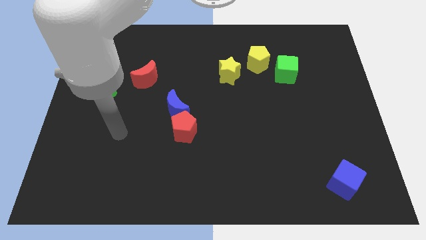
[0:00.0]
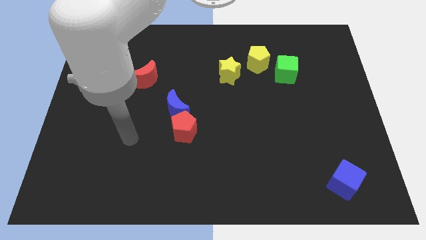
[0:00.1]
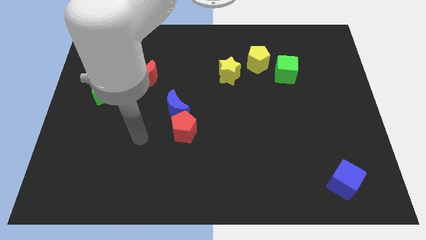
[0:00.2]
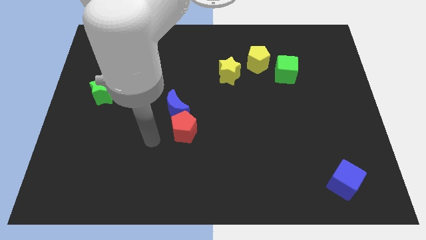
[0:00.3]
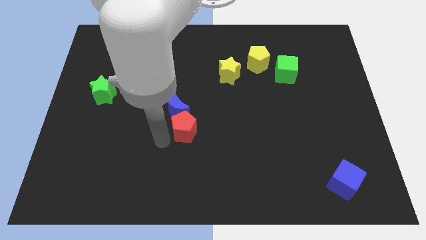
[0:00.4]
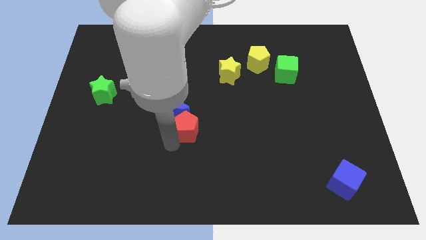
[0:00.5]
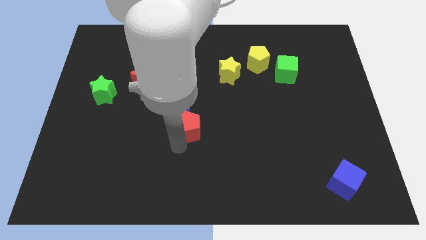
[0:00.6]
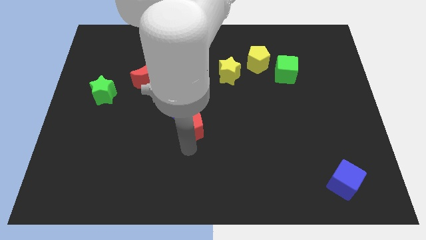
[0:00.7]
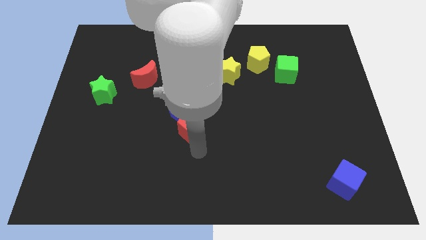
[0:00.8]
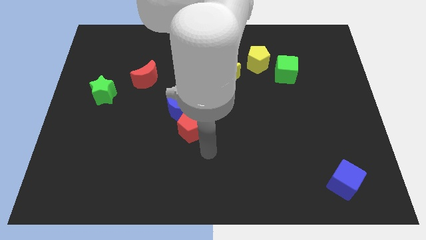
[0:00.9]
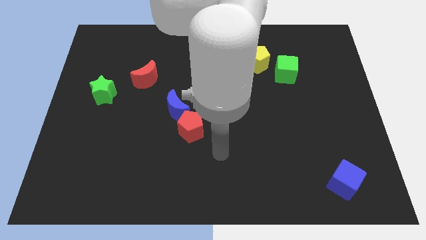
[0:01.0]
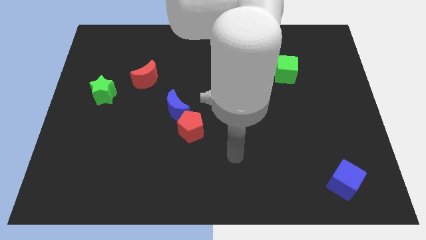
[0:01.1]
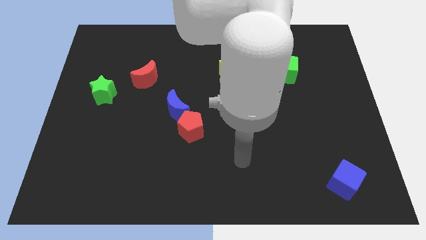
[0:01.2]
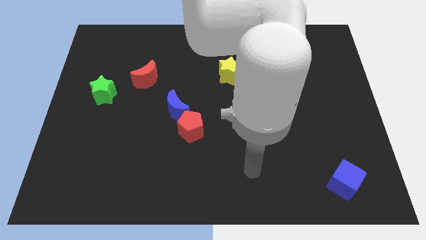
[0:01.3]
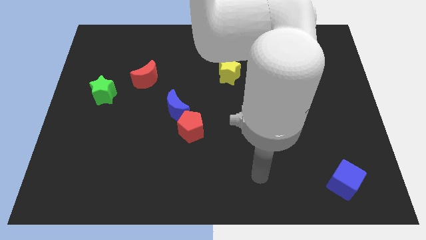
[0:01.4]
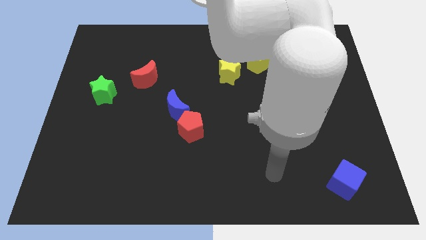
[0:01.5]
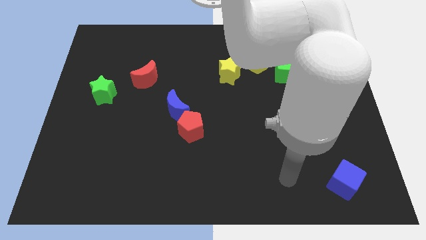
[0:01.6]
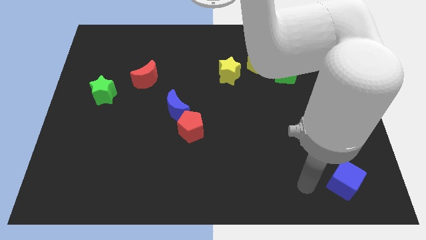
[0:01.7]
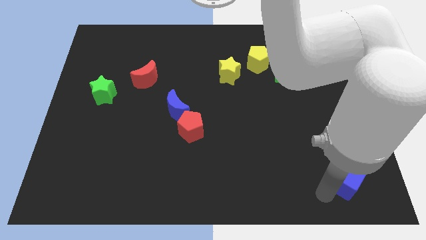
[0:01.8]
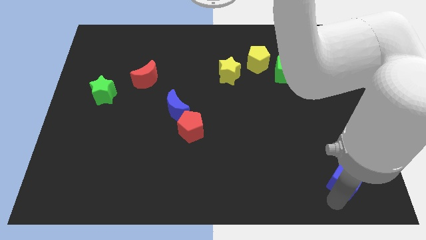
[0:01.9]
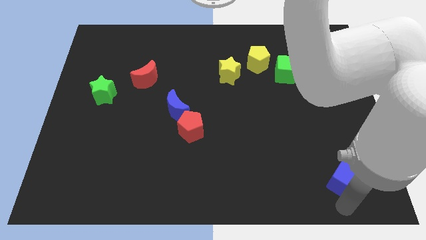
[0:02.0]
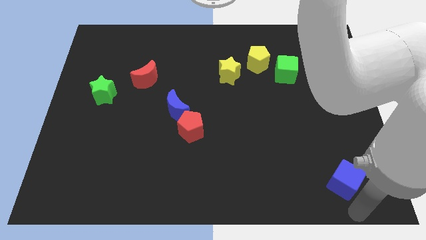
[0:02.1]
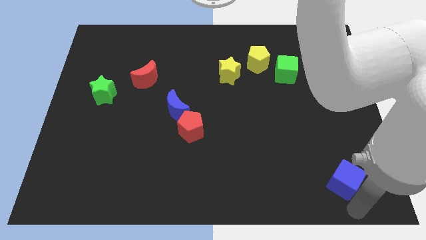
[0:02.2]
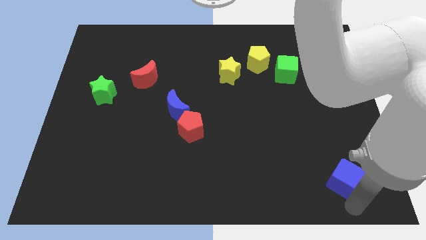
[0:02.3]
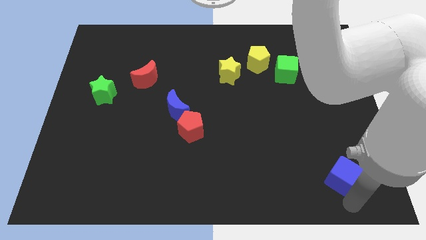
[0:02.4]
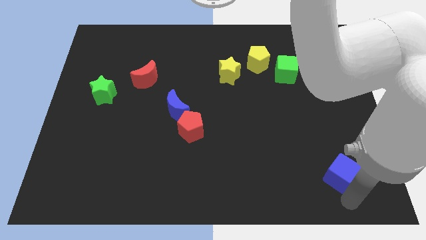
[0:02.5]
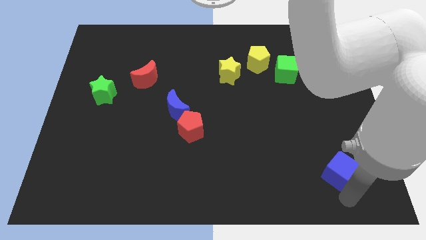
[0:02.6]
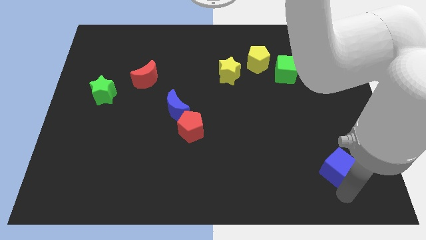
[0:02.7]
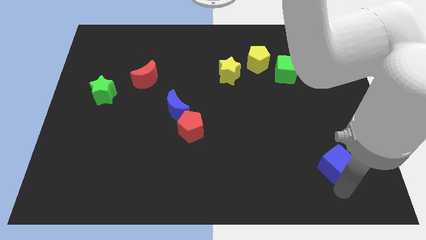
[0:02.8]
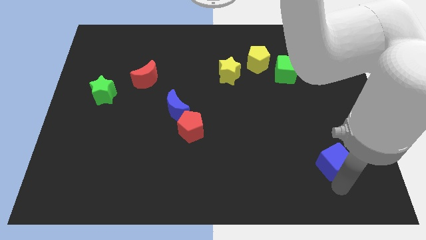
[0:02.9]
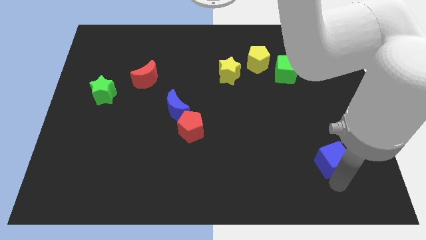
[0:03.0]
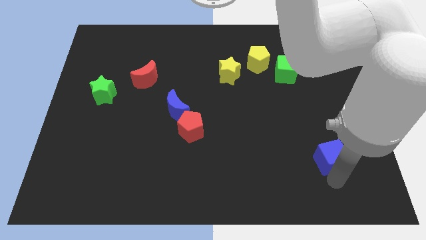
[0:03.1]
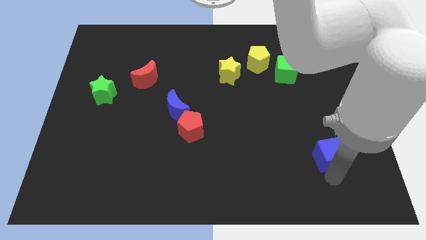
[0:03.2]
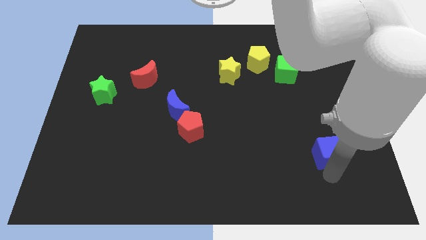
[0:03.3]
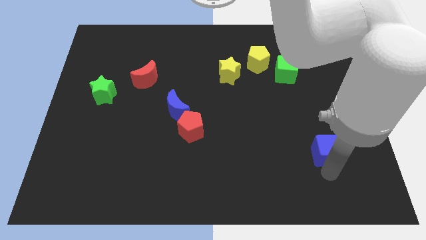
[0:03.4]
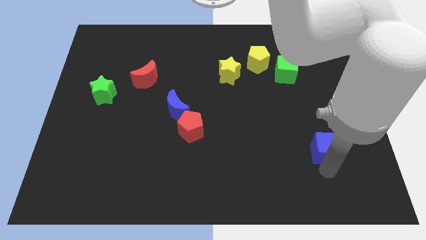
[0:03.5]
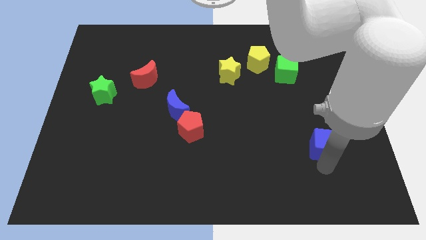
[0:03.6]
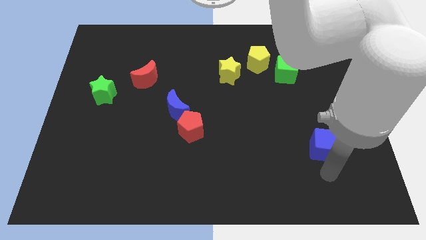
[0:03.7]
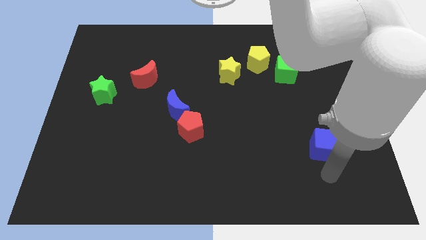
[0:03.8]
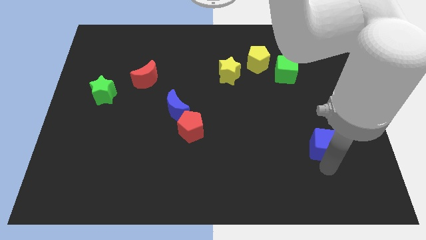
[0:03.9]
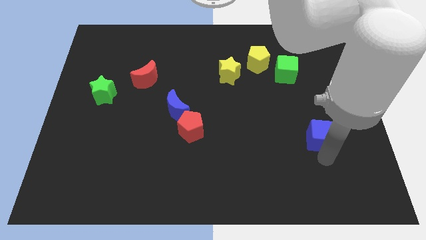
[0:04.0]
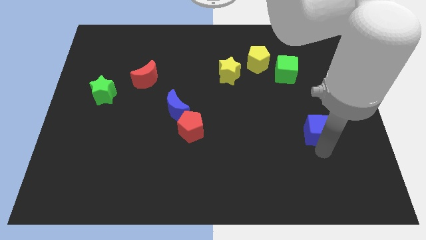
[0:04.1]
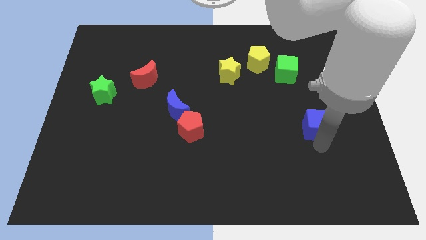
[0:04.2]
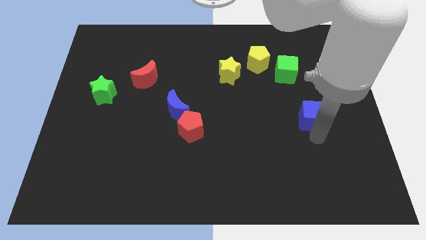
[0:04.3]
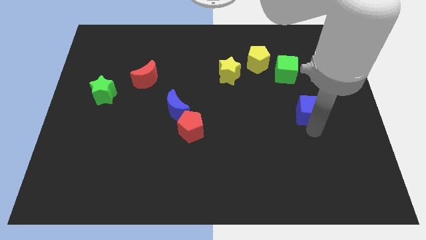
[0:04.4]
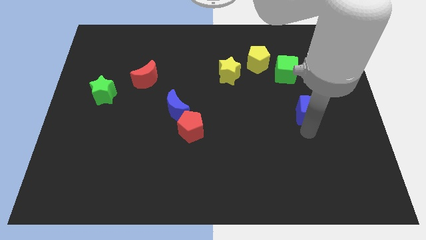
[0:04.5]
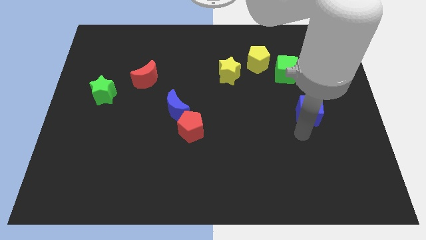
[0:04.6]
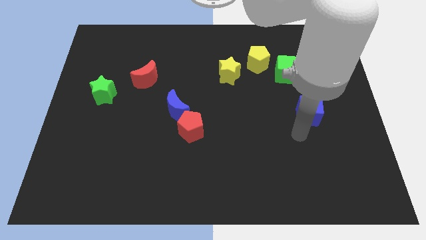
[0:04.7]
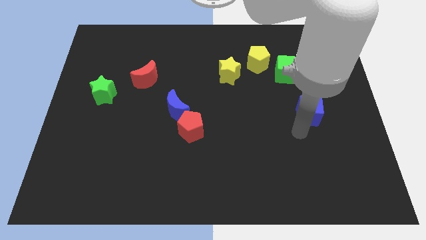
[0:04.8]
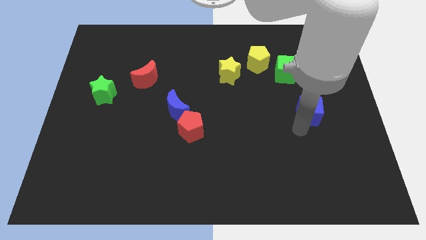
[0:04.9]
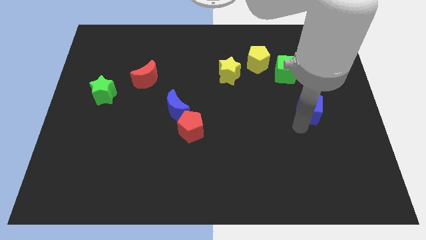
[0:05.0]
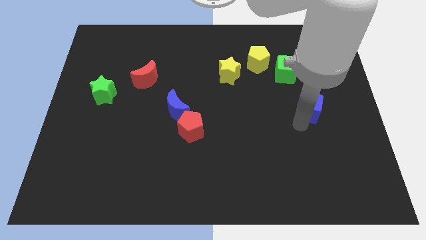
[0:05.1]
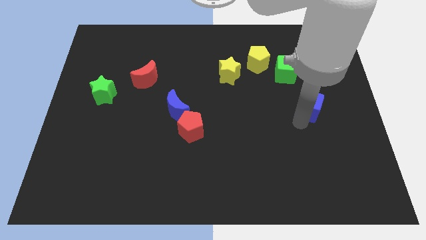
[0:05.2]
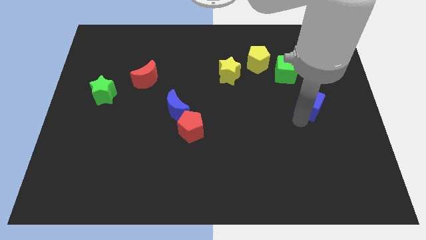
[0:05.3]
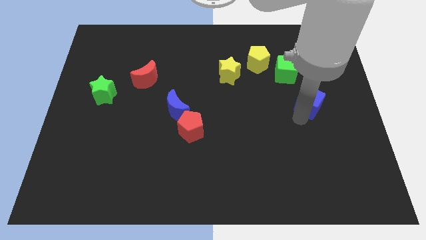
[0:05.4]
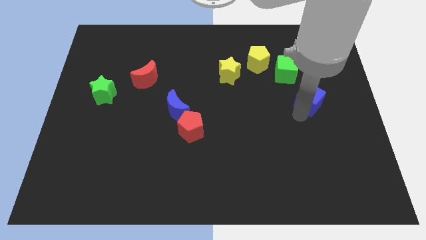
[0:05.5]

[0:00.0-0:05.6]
move the blue cube up

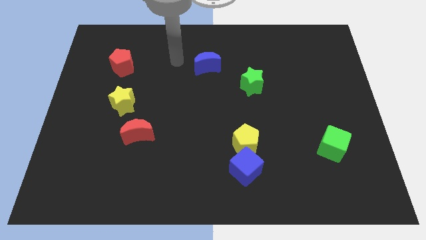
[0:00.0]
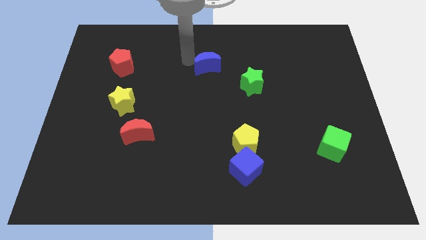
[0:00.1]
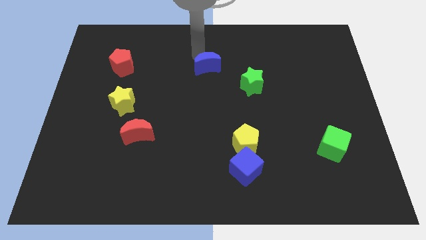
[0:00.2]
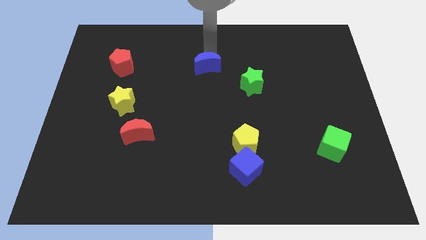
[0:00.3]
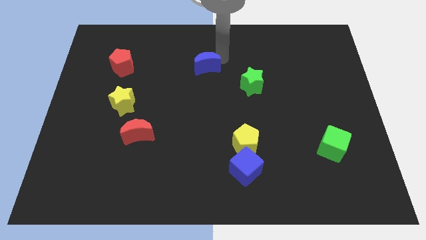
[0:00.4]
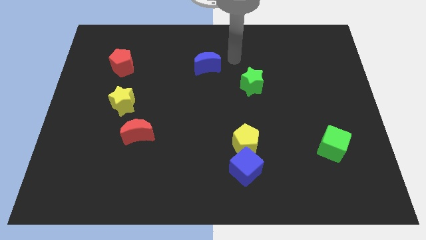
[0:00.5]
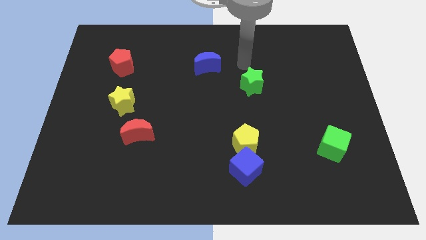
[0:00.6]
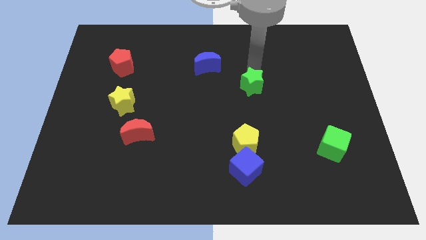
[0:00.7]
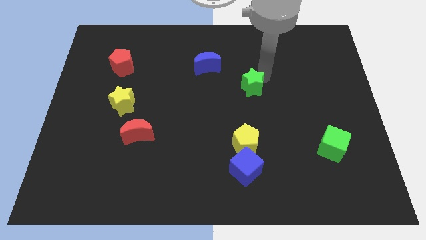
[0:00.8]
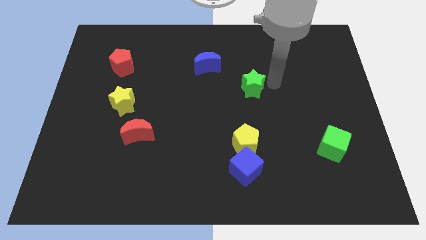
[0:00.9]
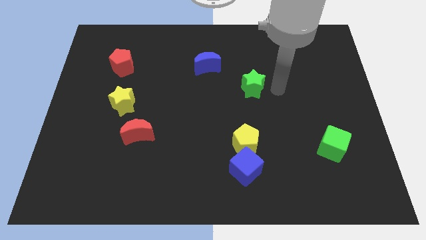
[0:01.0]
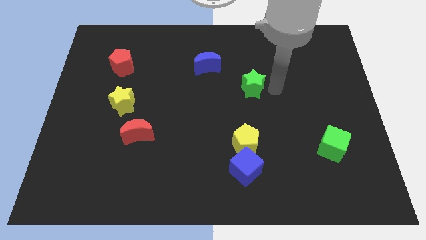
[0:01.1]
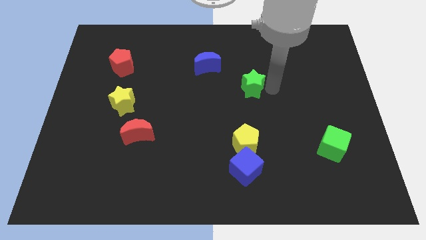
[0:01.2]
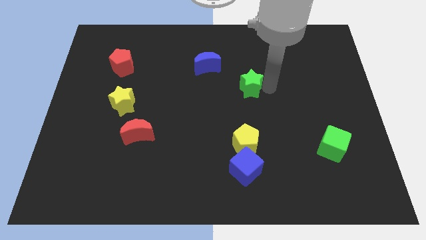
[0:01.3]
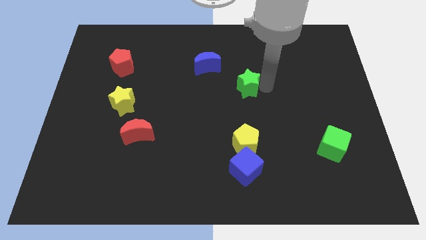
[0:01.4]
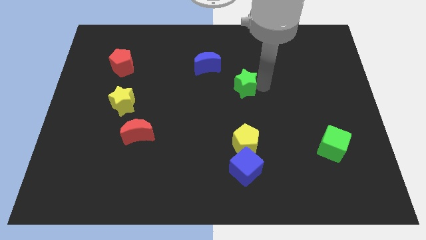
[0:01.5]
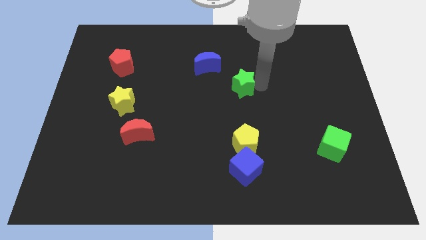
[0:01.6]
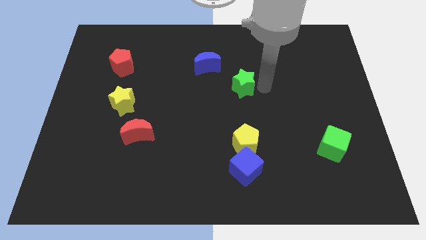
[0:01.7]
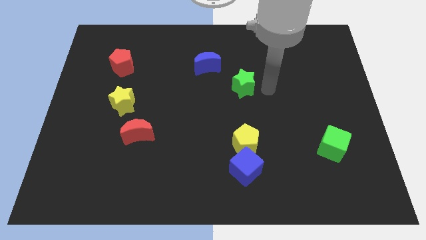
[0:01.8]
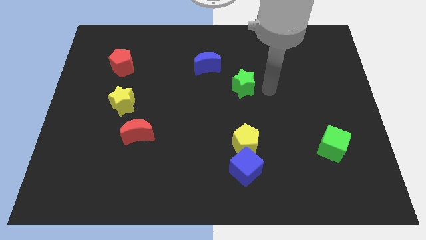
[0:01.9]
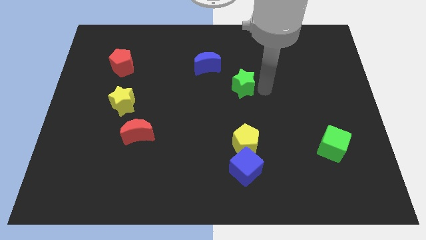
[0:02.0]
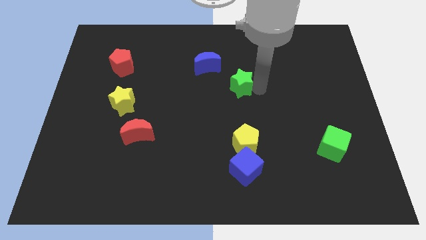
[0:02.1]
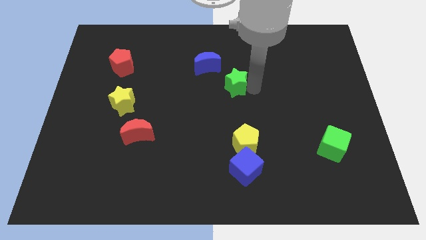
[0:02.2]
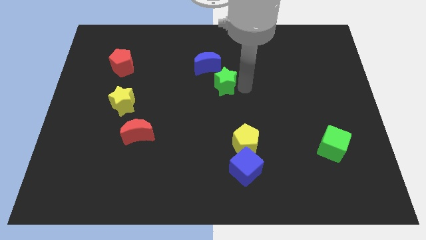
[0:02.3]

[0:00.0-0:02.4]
move the green star to the left a bit
